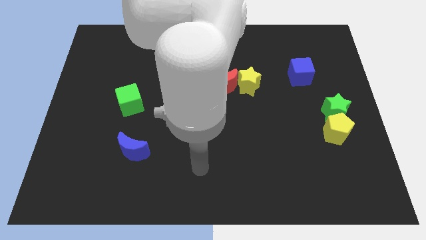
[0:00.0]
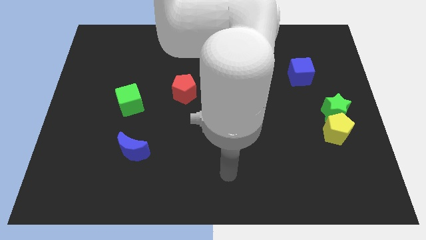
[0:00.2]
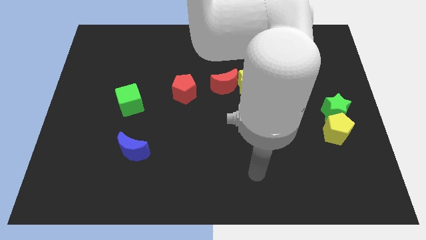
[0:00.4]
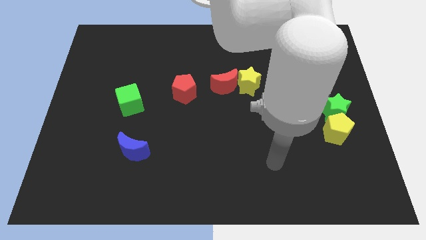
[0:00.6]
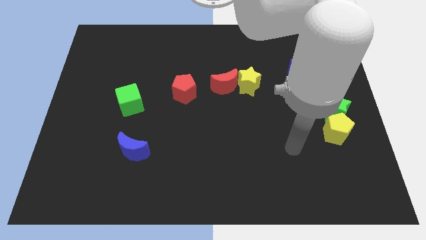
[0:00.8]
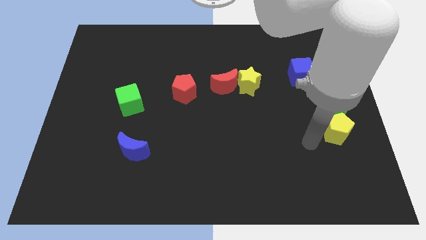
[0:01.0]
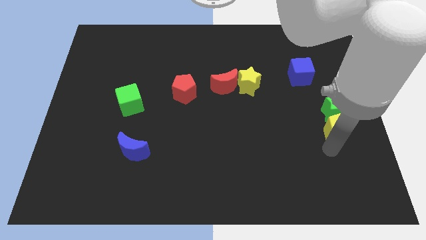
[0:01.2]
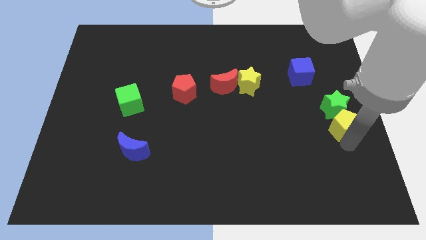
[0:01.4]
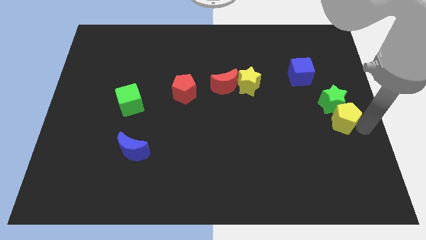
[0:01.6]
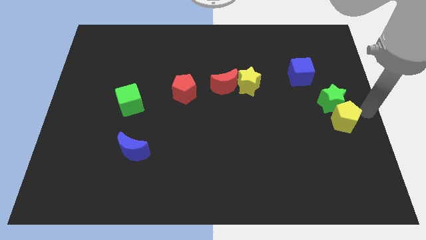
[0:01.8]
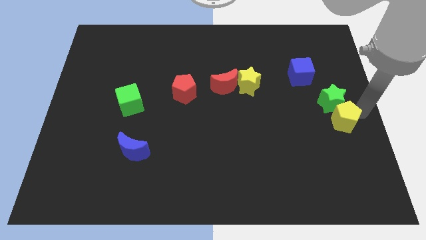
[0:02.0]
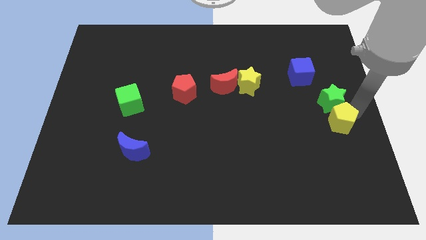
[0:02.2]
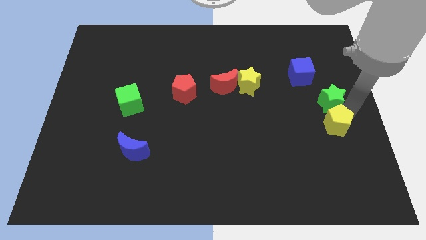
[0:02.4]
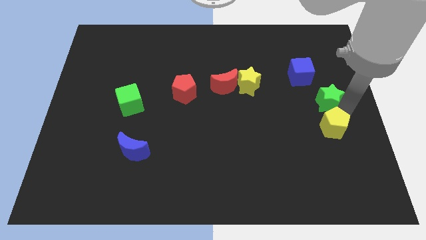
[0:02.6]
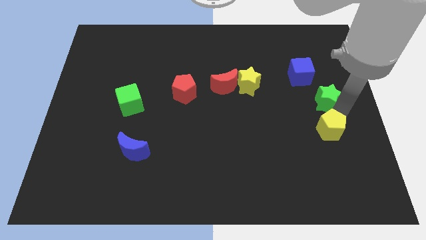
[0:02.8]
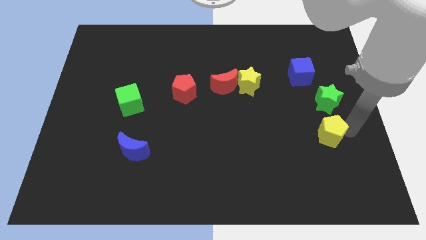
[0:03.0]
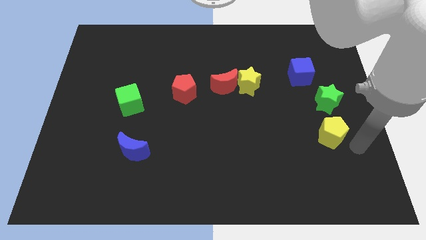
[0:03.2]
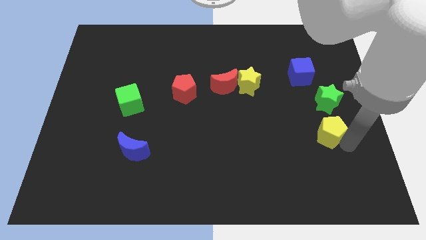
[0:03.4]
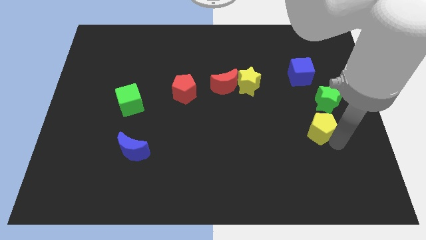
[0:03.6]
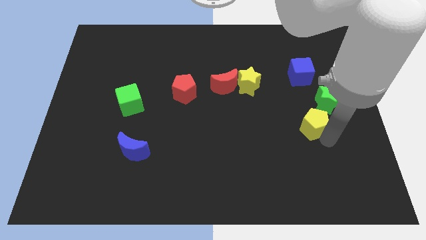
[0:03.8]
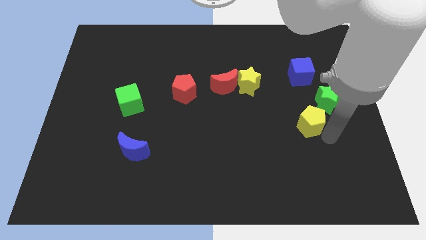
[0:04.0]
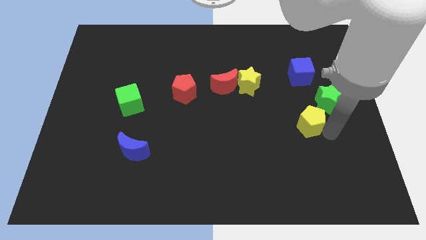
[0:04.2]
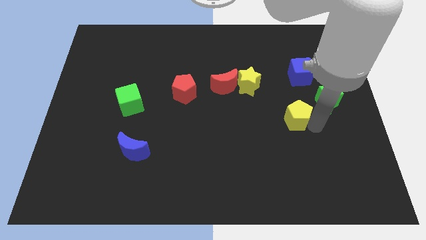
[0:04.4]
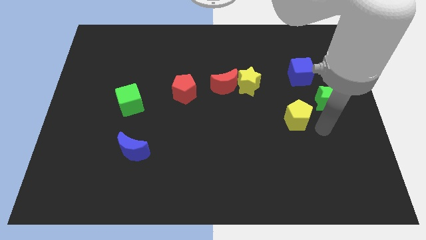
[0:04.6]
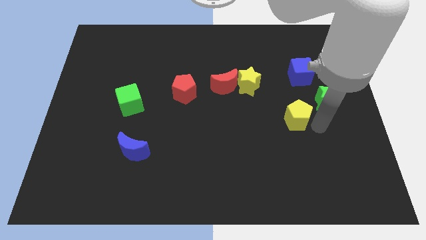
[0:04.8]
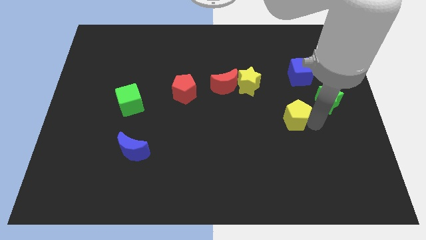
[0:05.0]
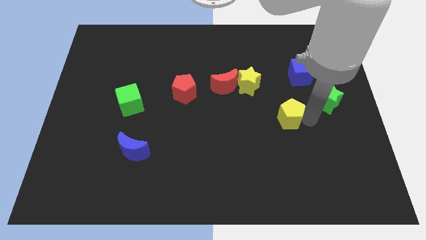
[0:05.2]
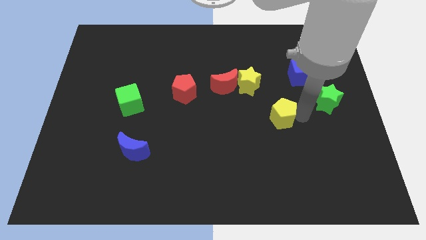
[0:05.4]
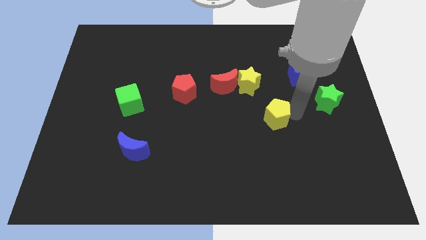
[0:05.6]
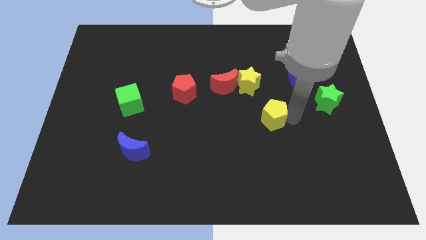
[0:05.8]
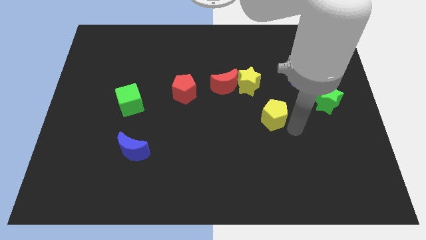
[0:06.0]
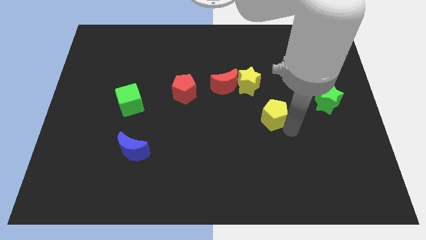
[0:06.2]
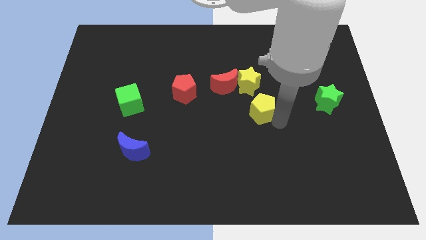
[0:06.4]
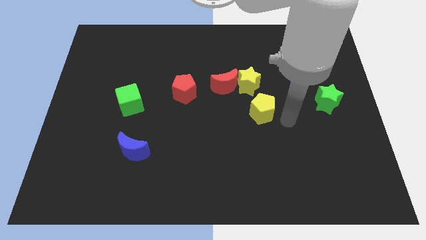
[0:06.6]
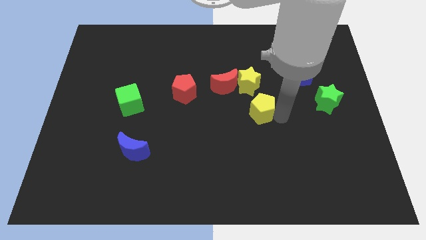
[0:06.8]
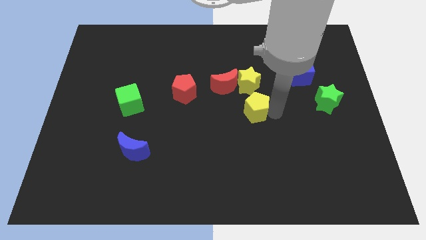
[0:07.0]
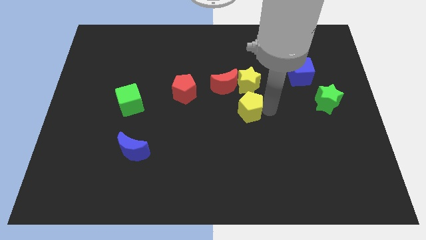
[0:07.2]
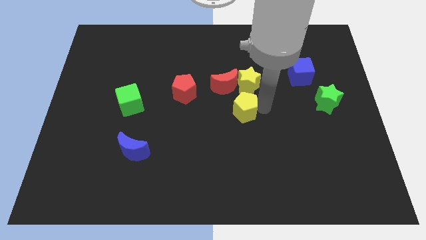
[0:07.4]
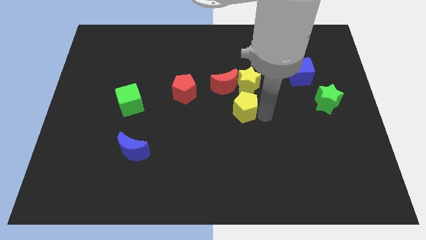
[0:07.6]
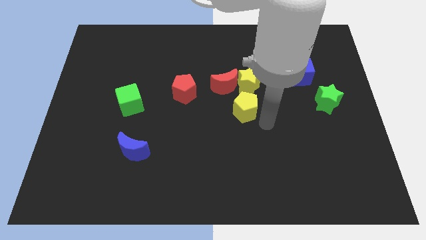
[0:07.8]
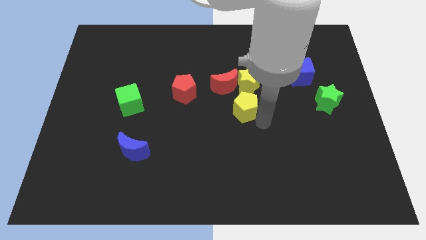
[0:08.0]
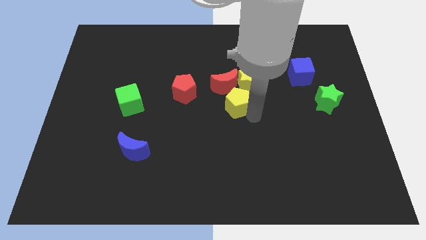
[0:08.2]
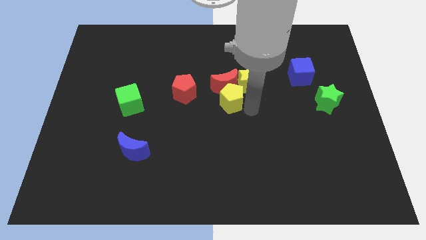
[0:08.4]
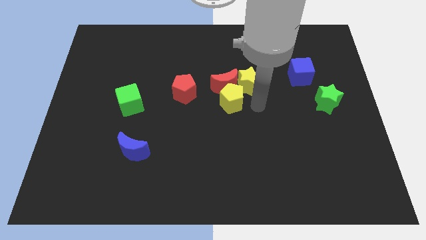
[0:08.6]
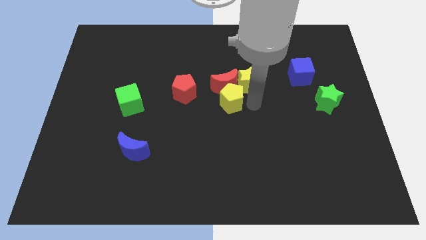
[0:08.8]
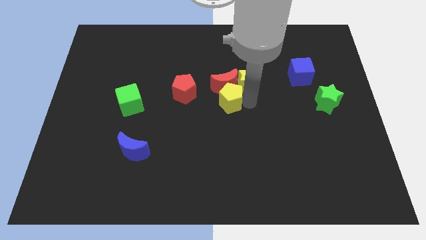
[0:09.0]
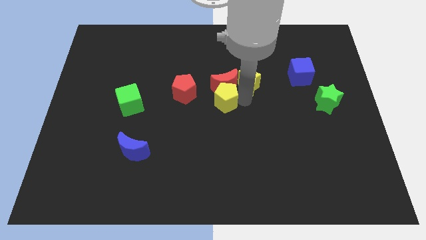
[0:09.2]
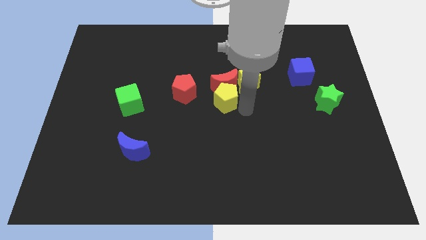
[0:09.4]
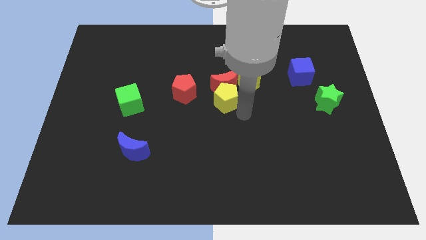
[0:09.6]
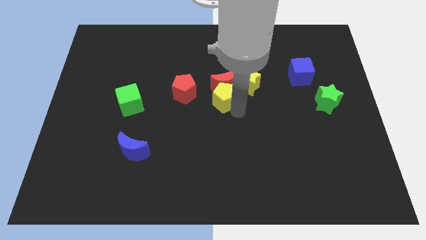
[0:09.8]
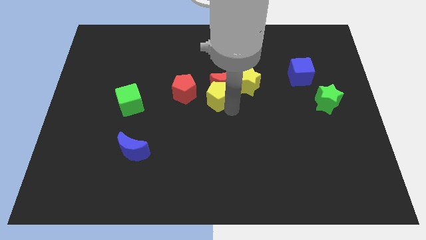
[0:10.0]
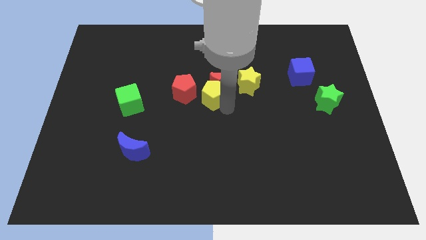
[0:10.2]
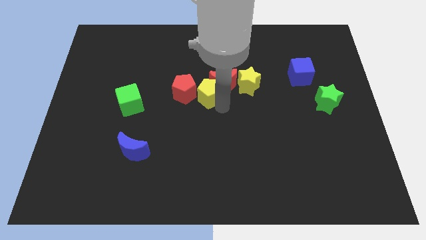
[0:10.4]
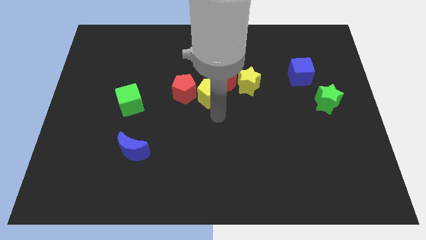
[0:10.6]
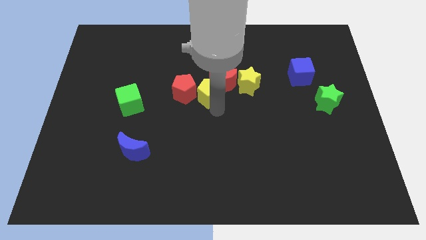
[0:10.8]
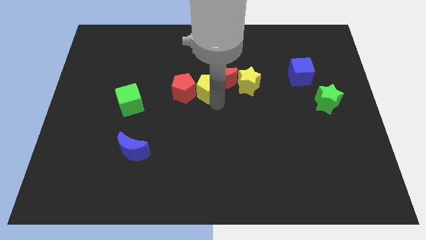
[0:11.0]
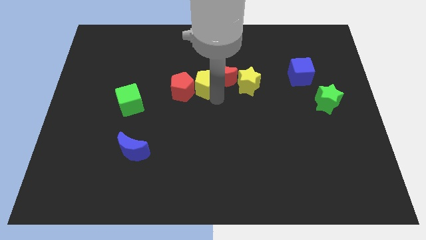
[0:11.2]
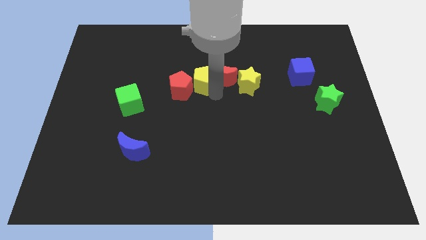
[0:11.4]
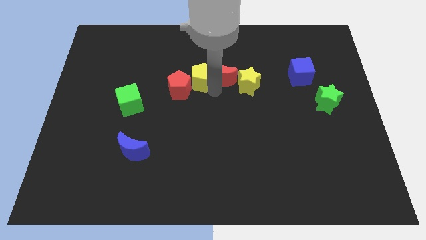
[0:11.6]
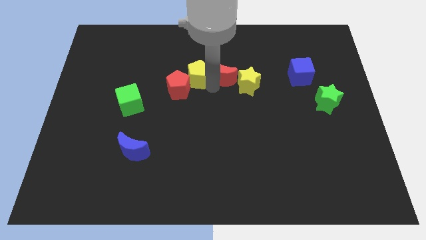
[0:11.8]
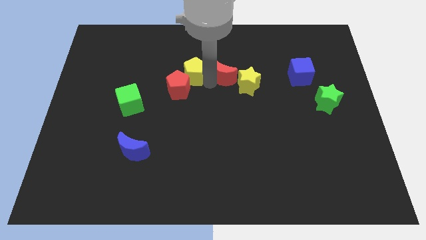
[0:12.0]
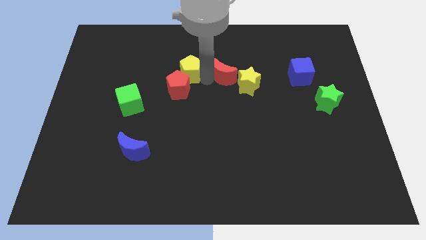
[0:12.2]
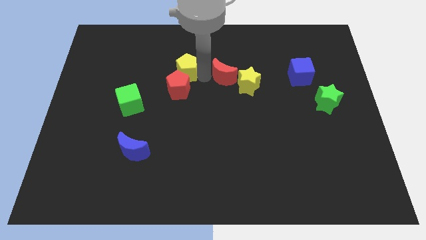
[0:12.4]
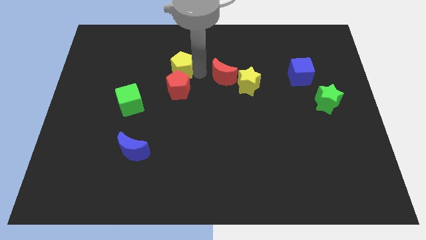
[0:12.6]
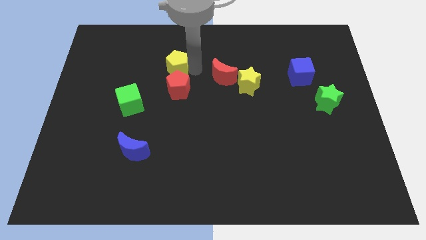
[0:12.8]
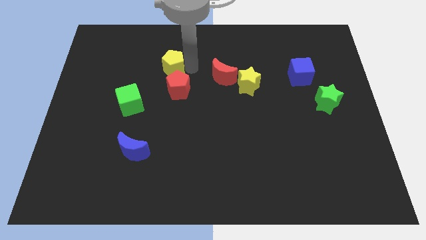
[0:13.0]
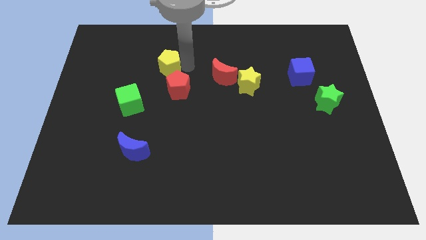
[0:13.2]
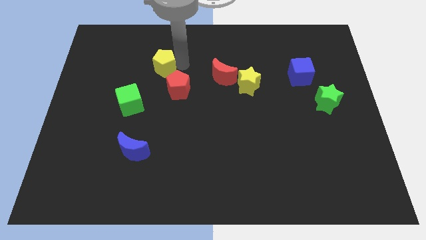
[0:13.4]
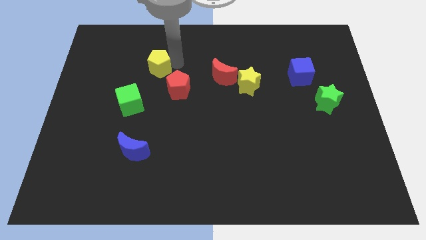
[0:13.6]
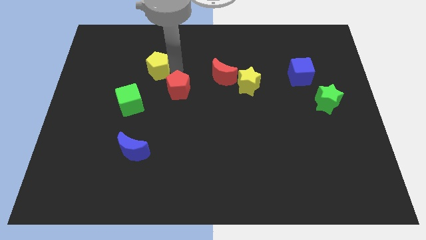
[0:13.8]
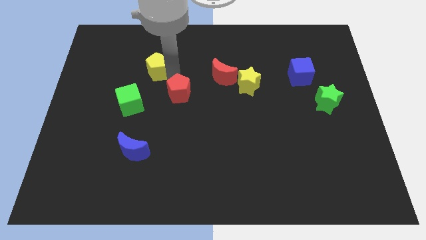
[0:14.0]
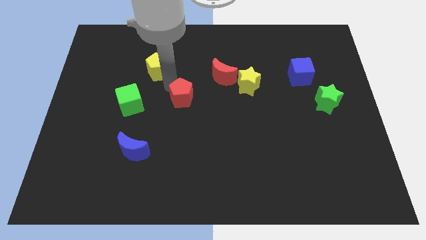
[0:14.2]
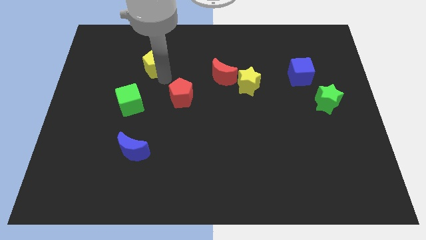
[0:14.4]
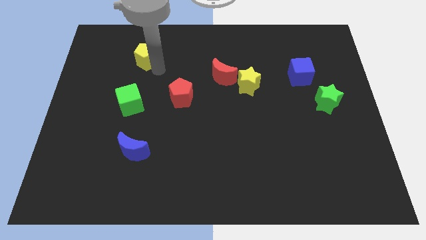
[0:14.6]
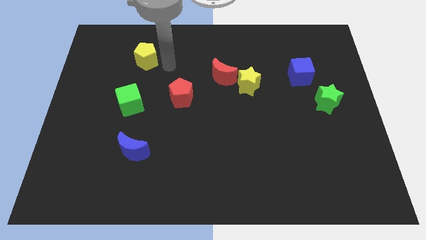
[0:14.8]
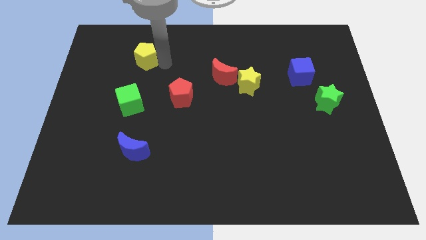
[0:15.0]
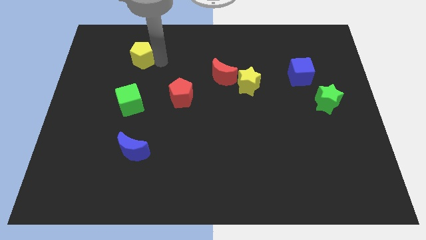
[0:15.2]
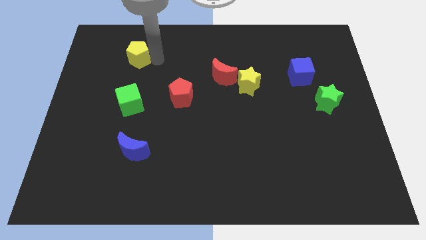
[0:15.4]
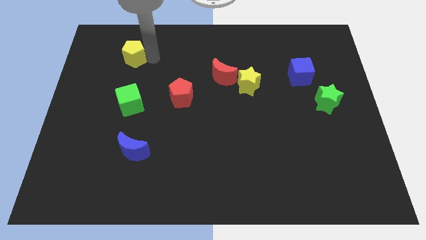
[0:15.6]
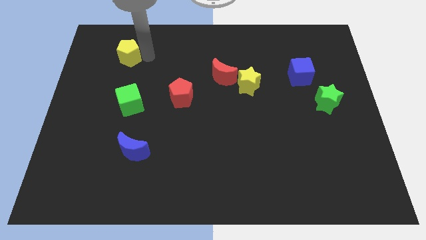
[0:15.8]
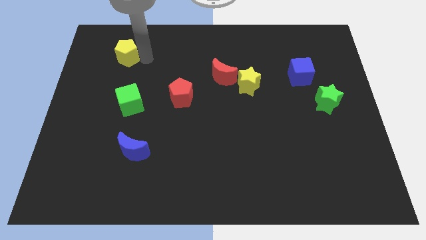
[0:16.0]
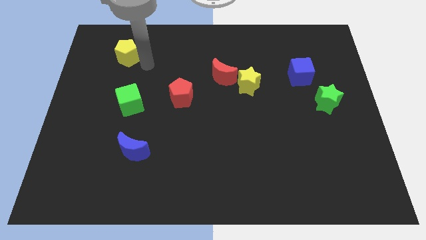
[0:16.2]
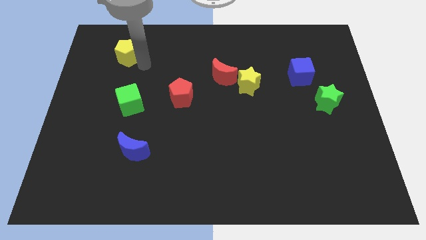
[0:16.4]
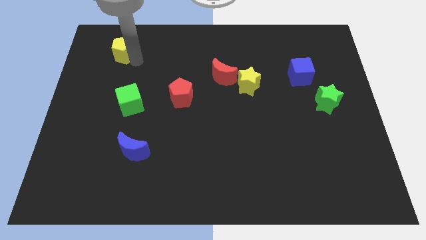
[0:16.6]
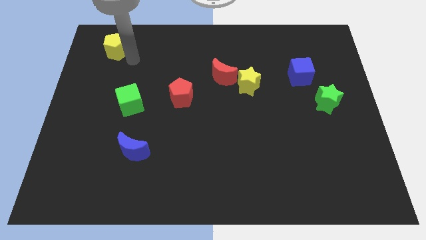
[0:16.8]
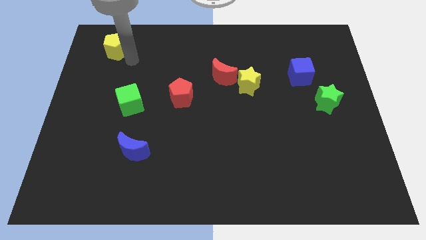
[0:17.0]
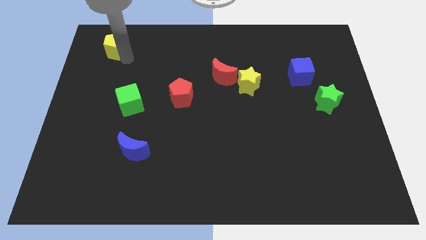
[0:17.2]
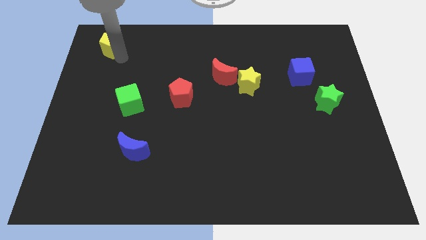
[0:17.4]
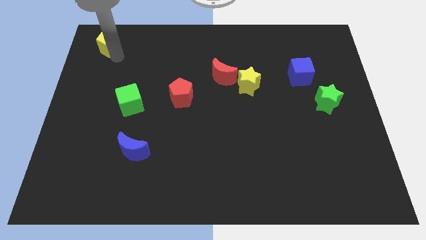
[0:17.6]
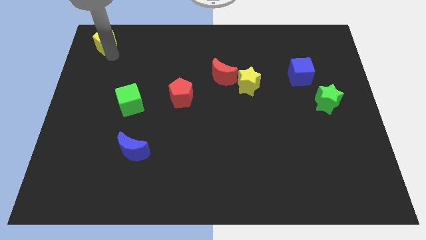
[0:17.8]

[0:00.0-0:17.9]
move the yellow pentagon to the top left corner
